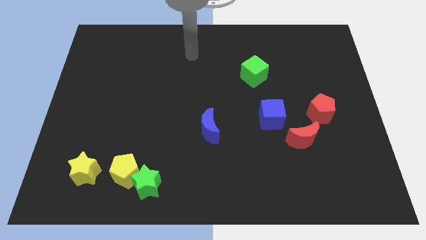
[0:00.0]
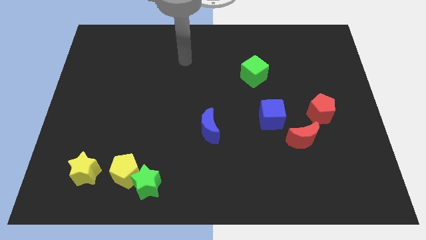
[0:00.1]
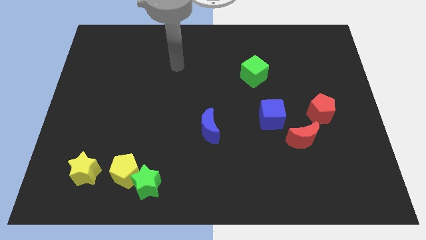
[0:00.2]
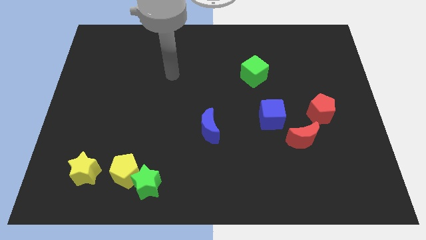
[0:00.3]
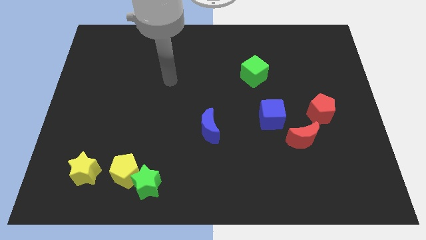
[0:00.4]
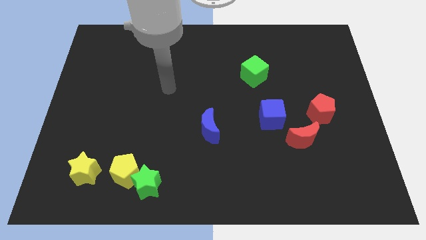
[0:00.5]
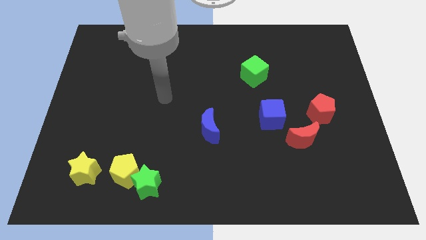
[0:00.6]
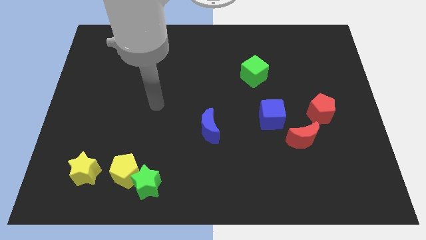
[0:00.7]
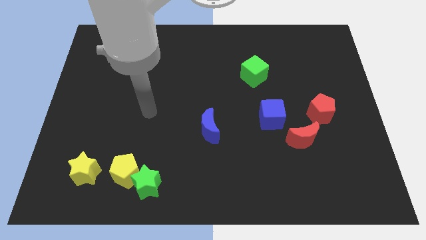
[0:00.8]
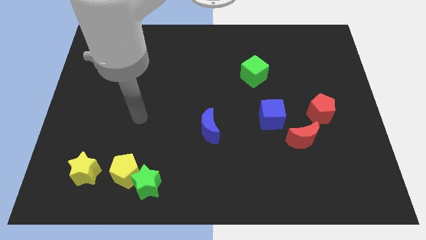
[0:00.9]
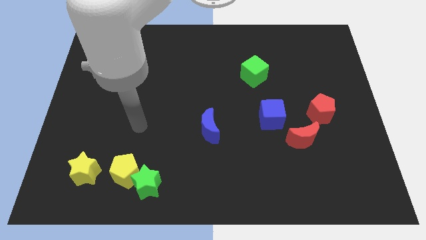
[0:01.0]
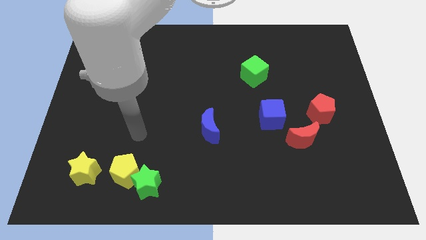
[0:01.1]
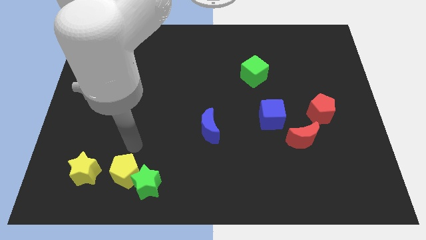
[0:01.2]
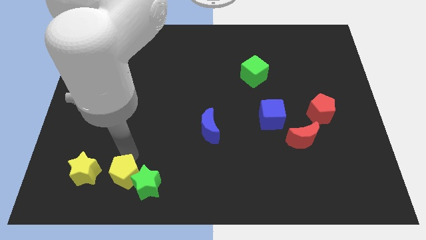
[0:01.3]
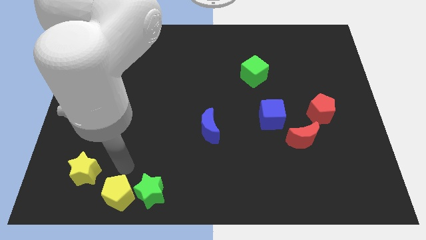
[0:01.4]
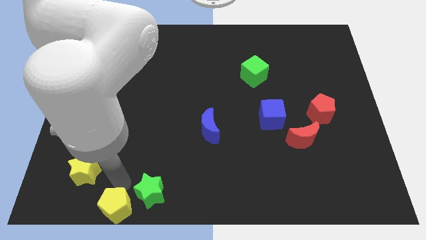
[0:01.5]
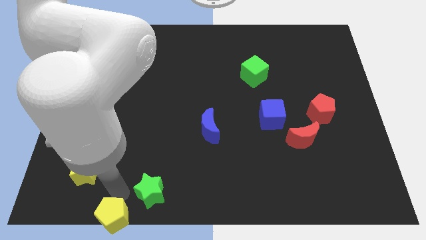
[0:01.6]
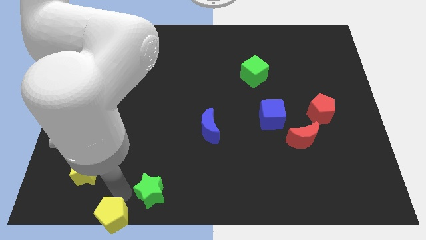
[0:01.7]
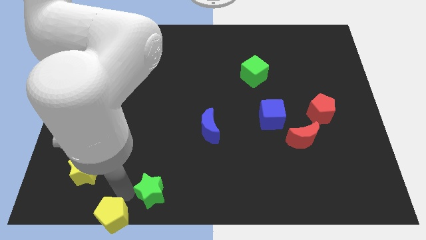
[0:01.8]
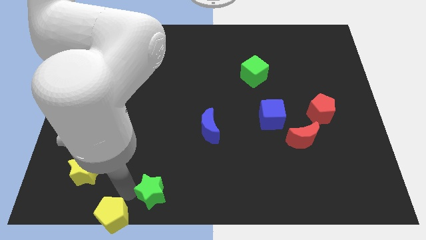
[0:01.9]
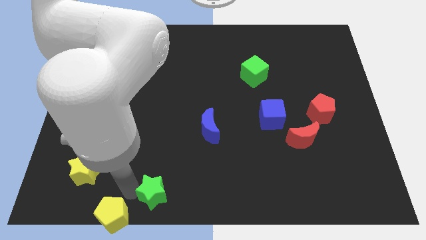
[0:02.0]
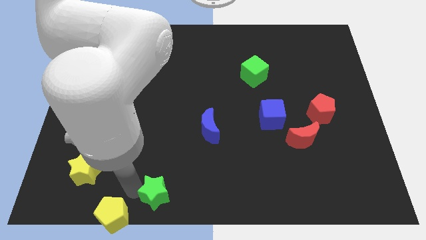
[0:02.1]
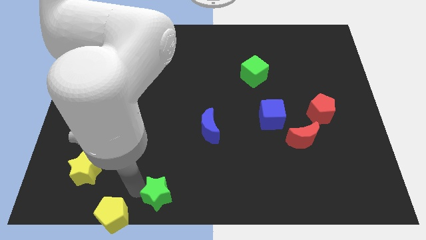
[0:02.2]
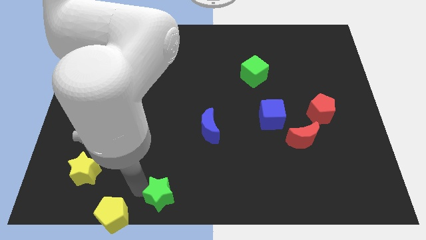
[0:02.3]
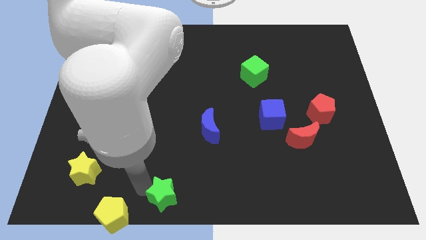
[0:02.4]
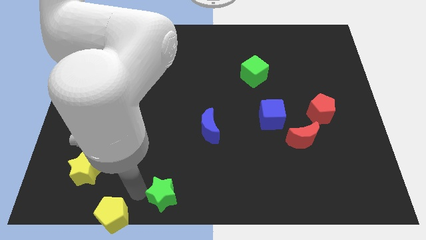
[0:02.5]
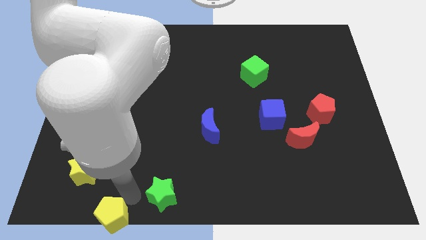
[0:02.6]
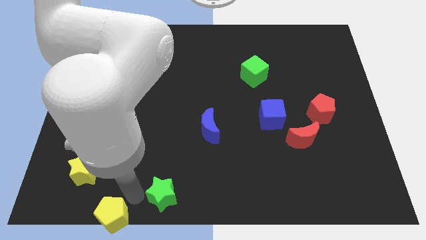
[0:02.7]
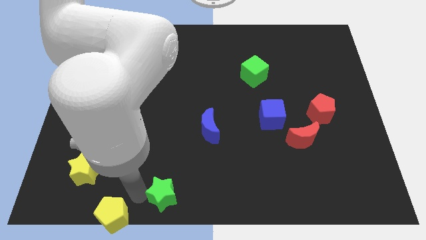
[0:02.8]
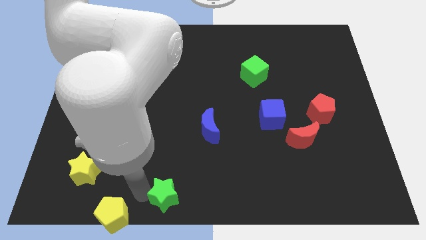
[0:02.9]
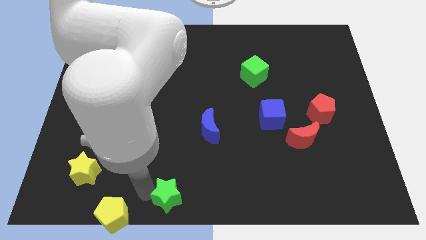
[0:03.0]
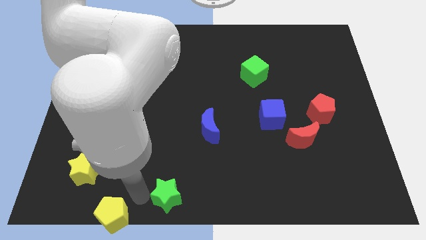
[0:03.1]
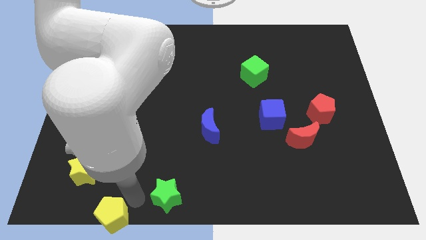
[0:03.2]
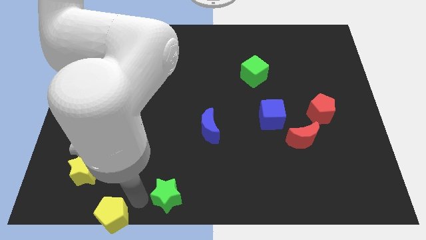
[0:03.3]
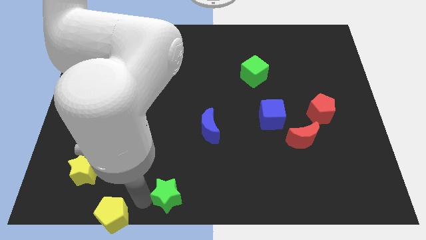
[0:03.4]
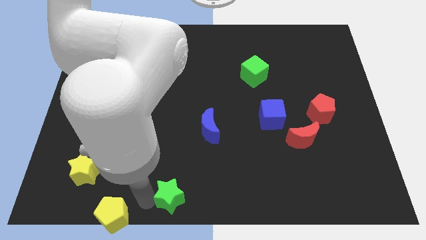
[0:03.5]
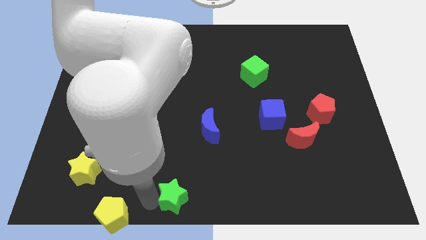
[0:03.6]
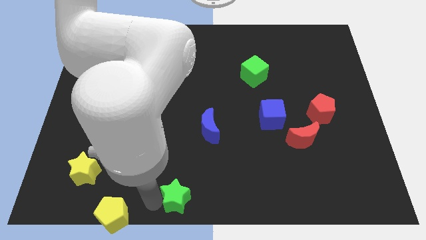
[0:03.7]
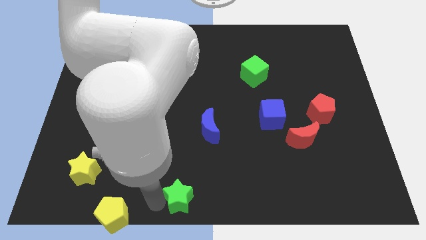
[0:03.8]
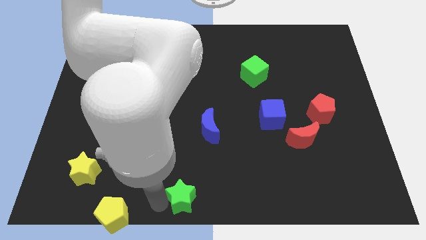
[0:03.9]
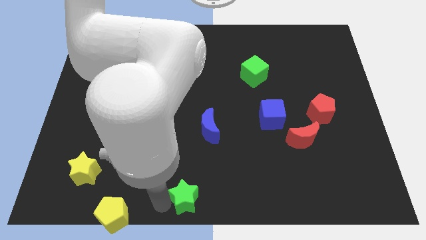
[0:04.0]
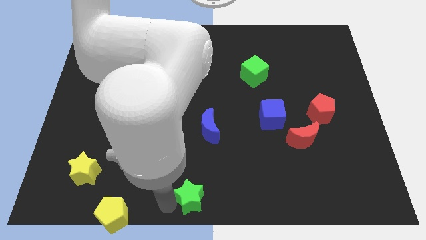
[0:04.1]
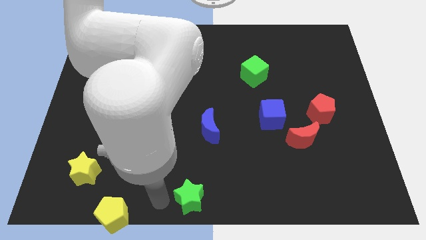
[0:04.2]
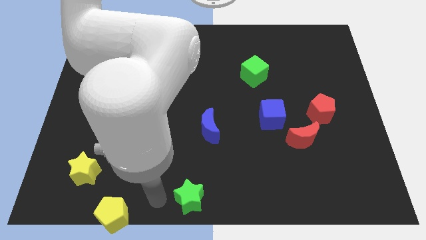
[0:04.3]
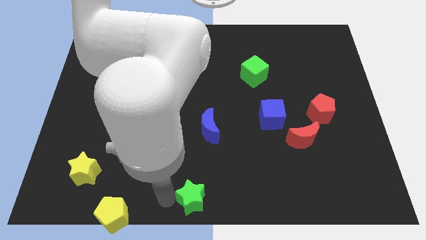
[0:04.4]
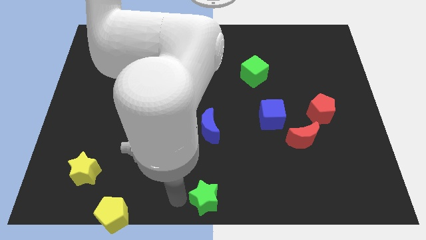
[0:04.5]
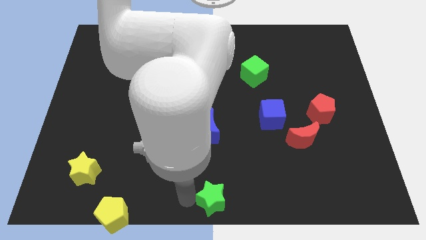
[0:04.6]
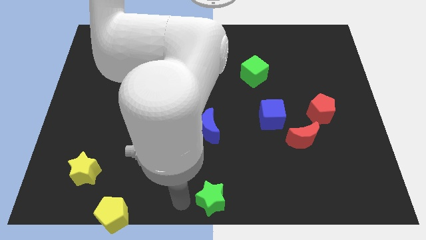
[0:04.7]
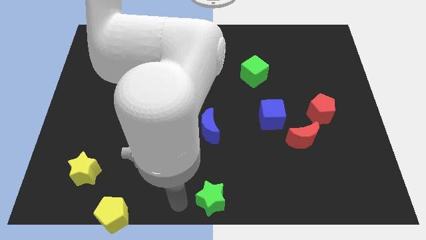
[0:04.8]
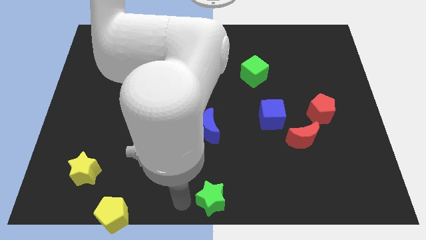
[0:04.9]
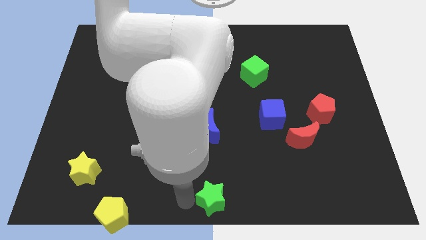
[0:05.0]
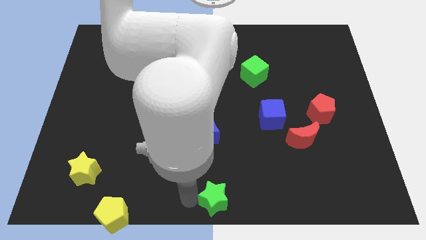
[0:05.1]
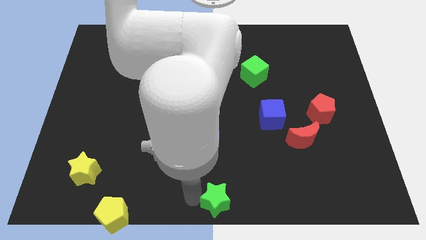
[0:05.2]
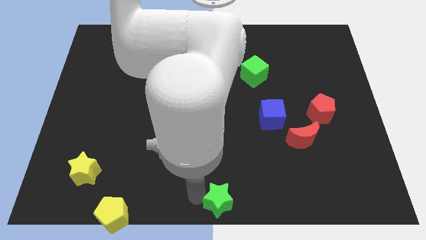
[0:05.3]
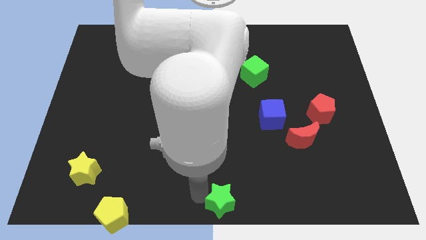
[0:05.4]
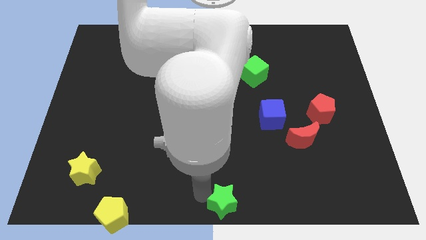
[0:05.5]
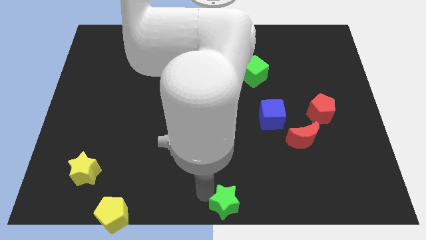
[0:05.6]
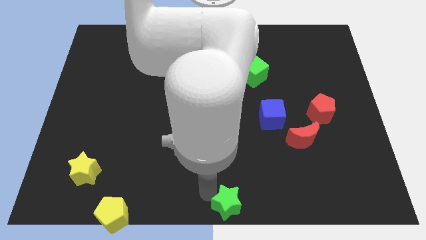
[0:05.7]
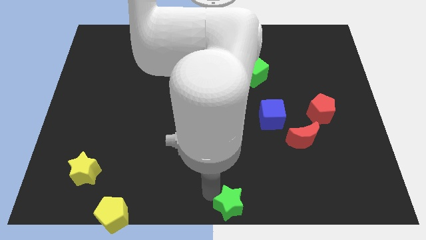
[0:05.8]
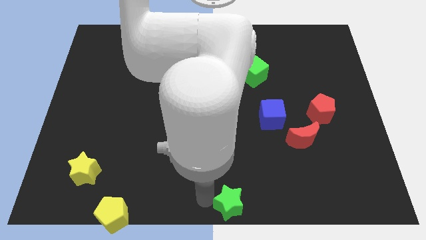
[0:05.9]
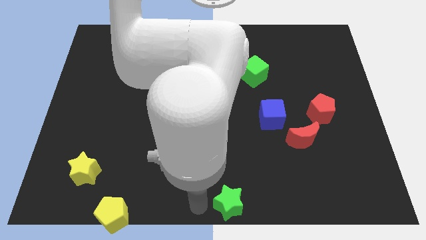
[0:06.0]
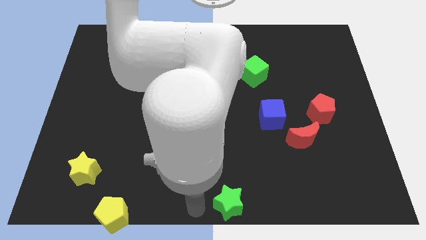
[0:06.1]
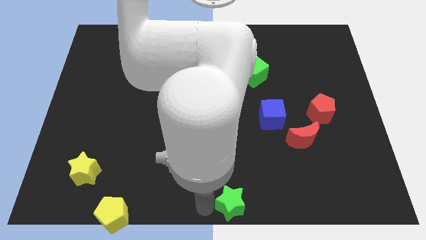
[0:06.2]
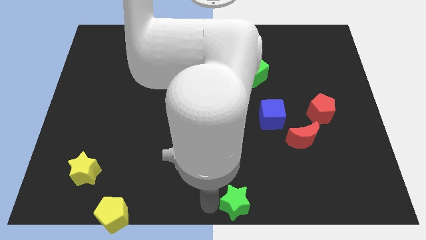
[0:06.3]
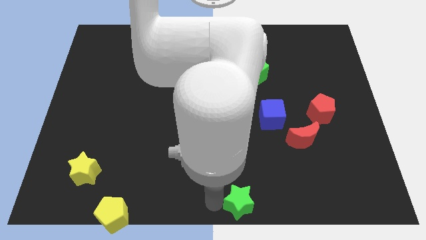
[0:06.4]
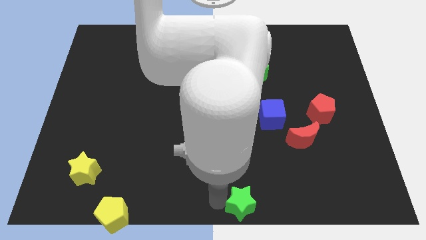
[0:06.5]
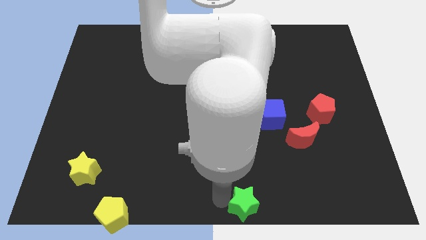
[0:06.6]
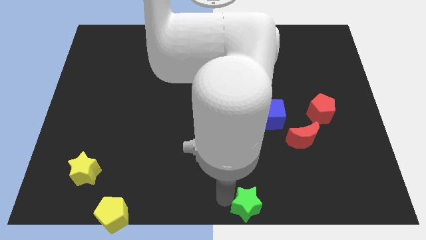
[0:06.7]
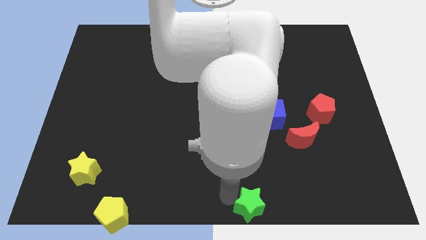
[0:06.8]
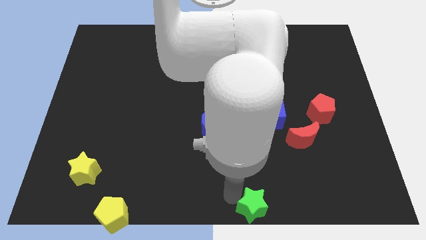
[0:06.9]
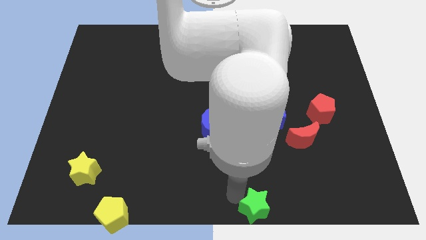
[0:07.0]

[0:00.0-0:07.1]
slide the green star right

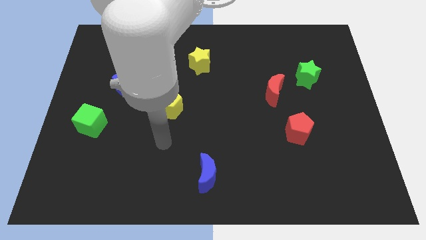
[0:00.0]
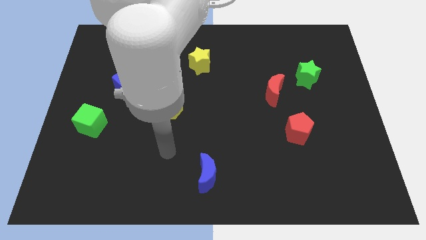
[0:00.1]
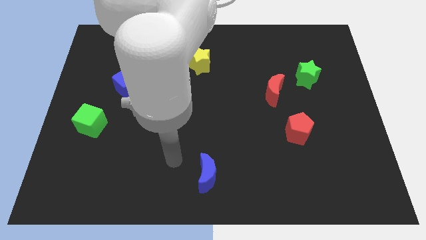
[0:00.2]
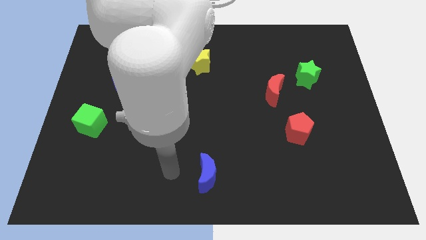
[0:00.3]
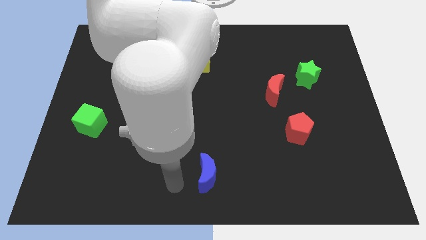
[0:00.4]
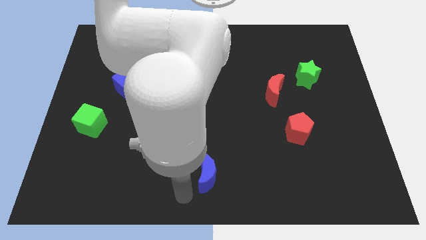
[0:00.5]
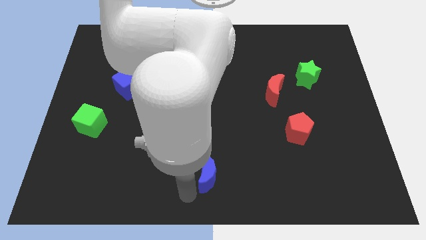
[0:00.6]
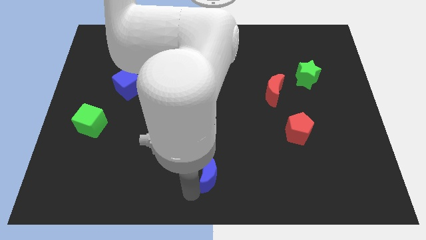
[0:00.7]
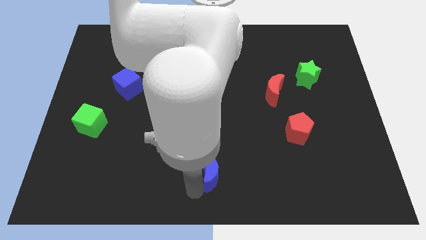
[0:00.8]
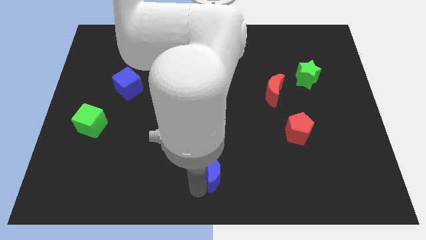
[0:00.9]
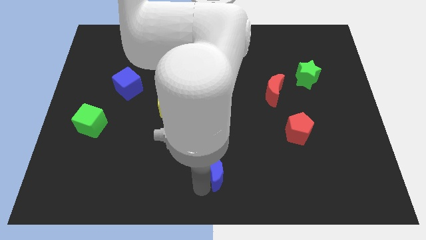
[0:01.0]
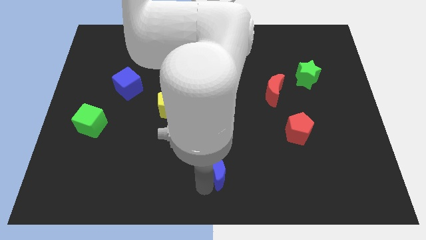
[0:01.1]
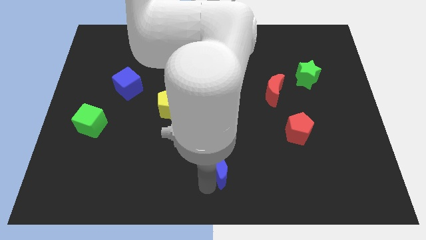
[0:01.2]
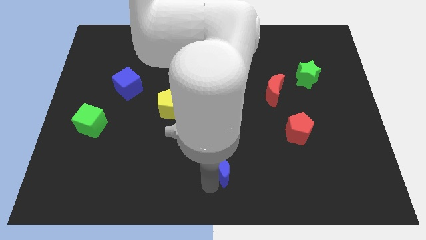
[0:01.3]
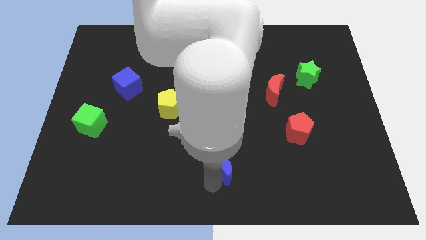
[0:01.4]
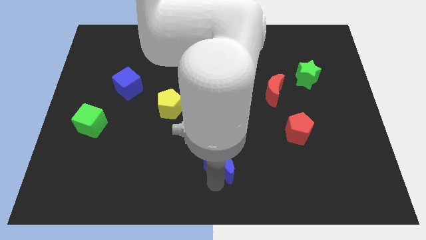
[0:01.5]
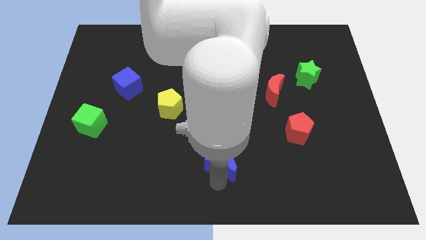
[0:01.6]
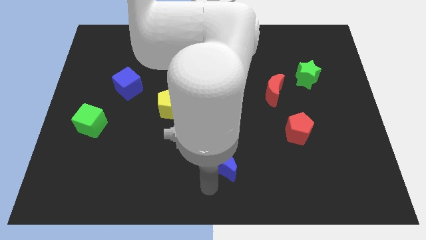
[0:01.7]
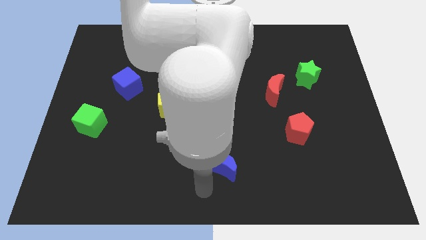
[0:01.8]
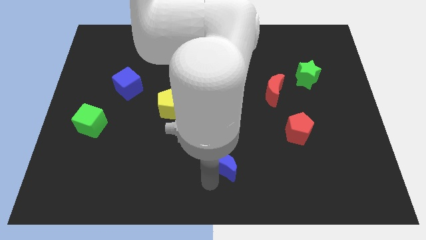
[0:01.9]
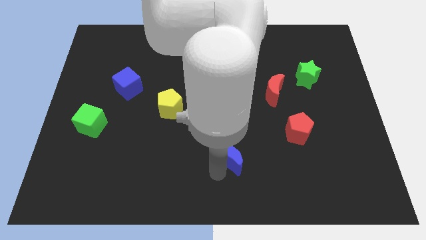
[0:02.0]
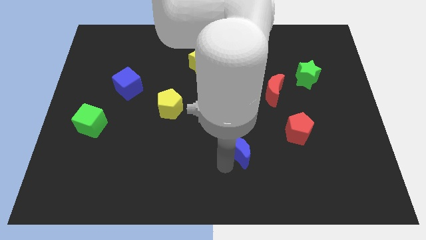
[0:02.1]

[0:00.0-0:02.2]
move the blue moon up and right a little bit
